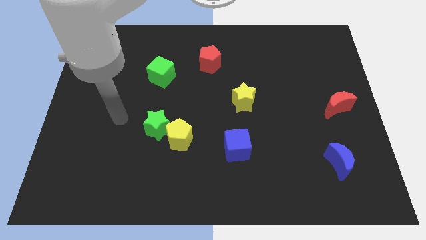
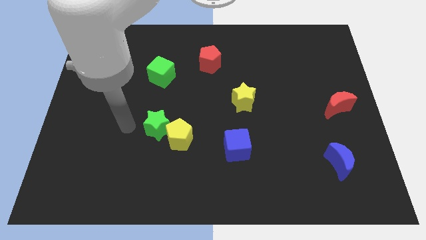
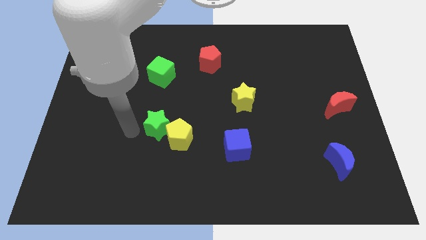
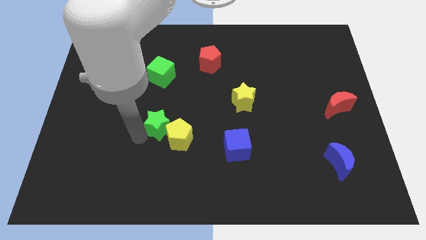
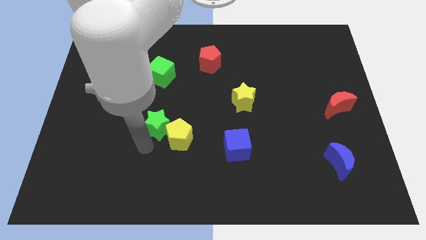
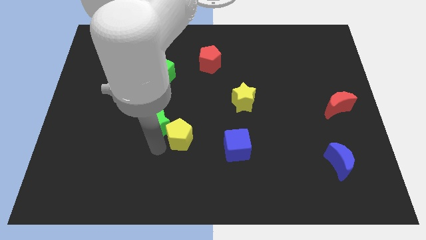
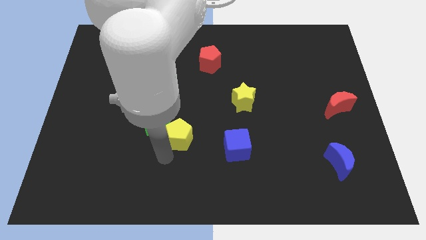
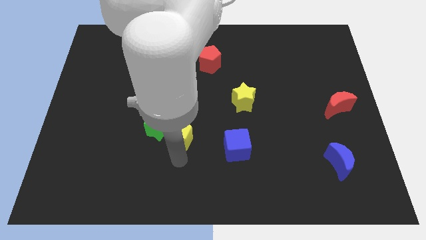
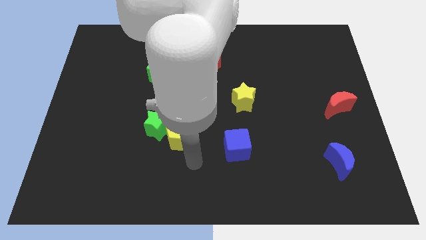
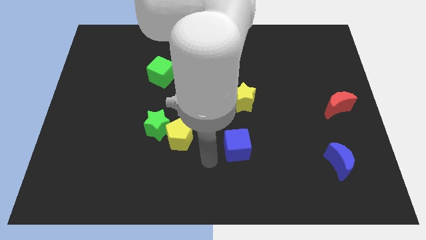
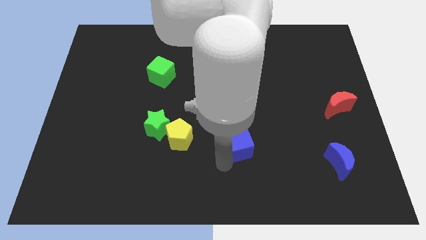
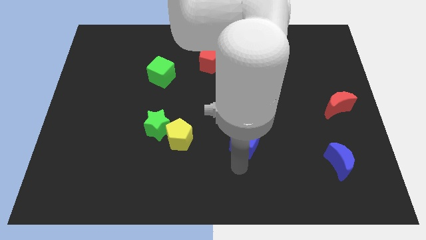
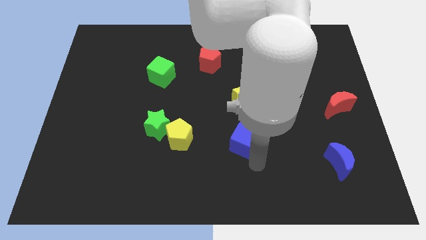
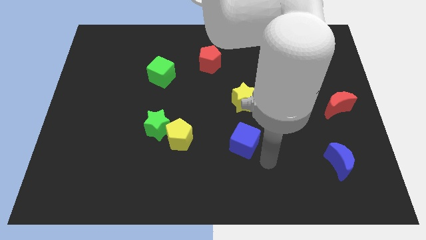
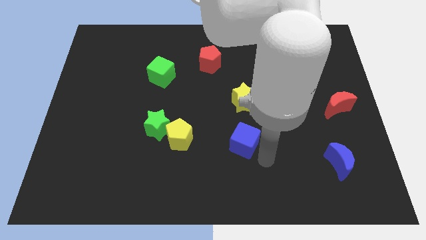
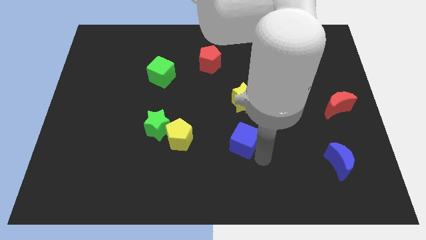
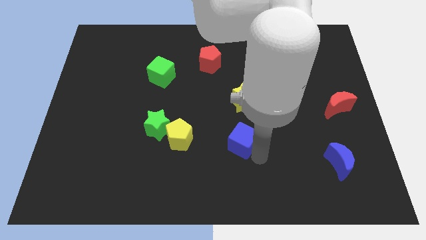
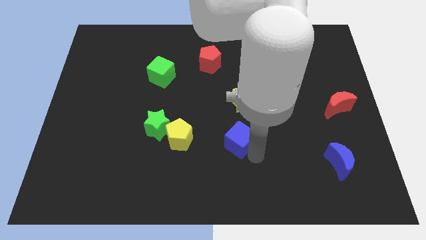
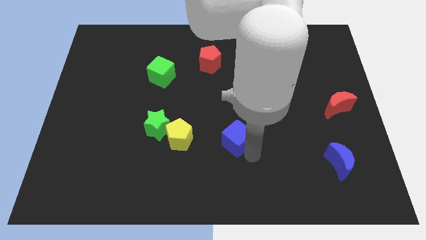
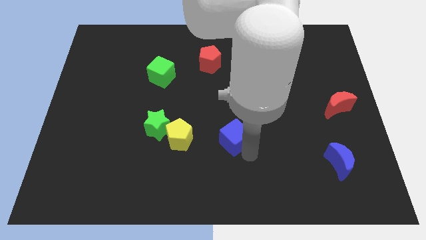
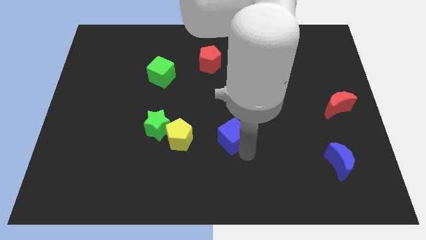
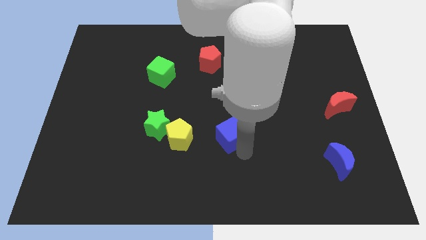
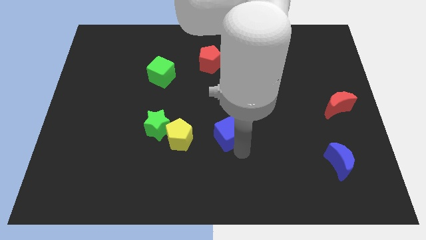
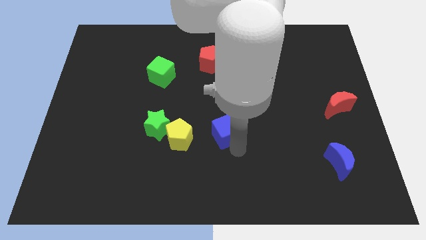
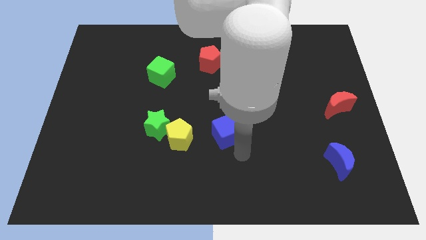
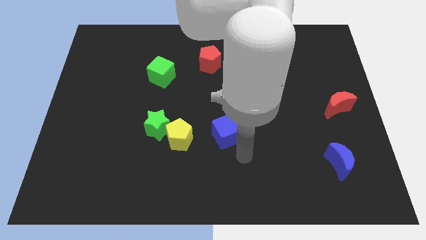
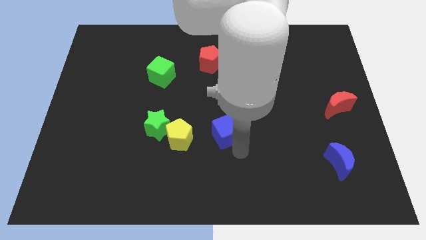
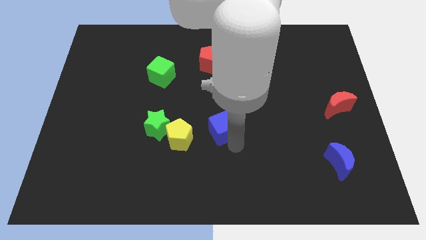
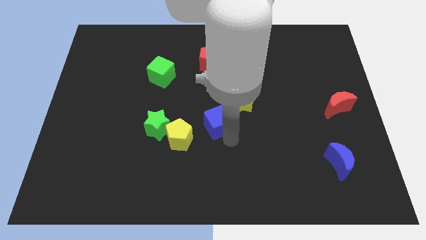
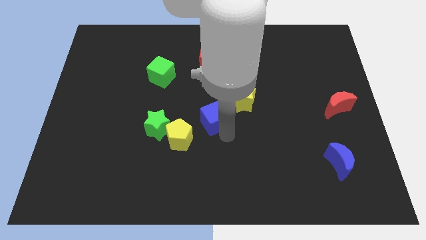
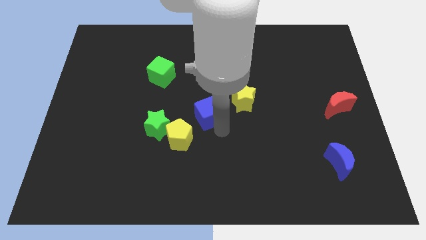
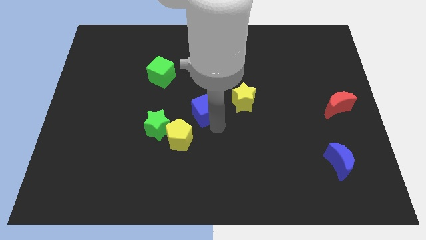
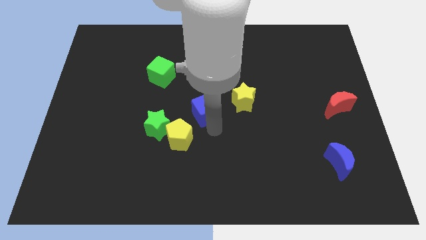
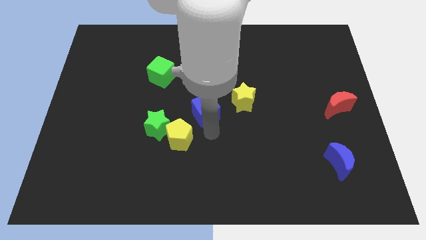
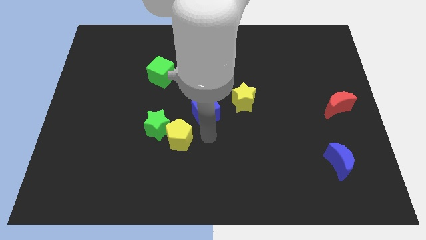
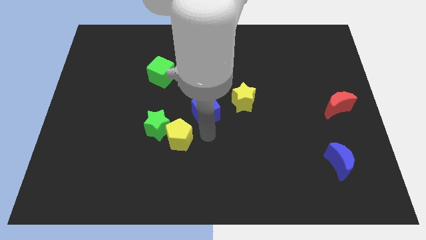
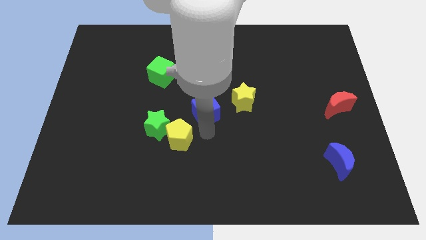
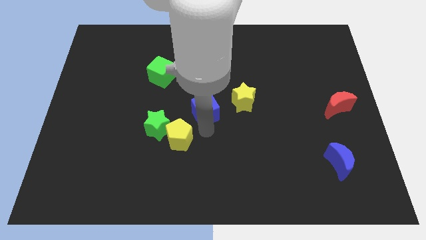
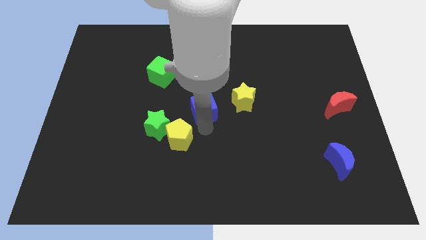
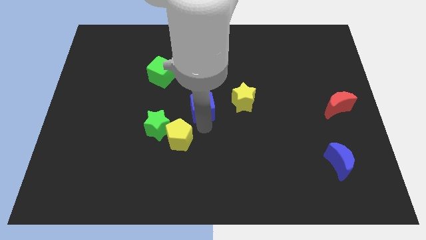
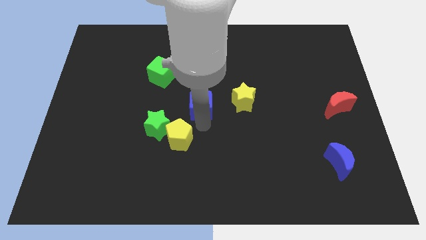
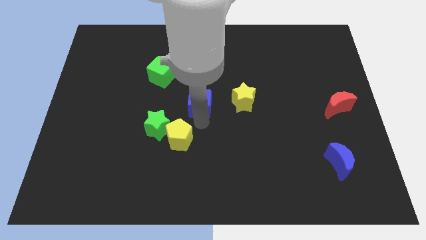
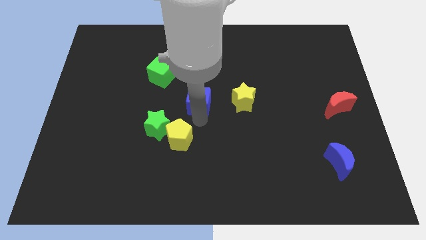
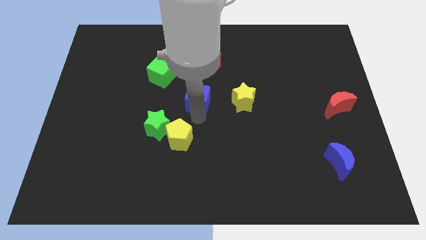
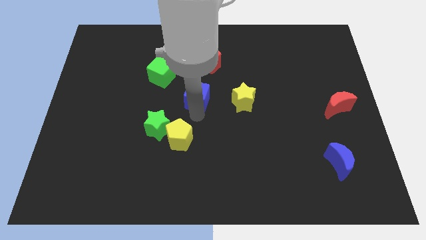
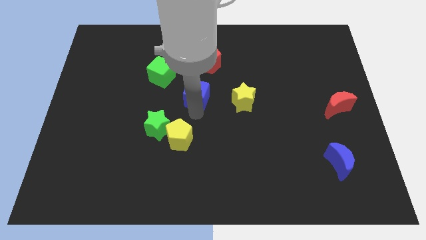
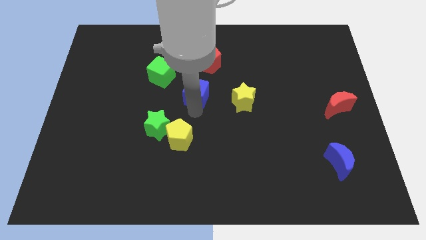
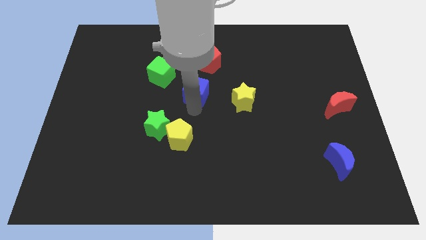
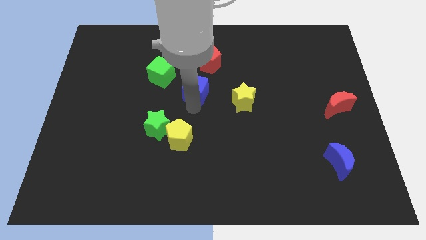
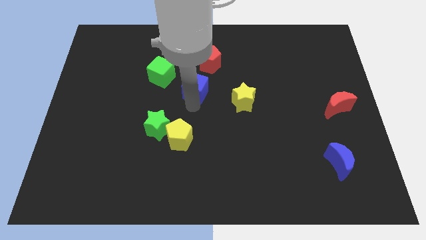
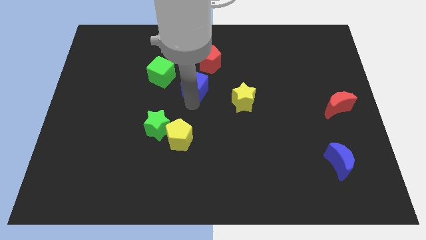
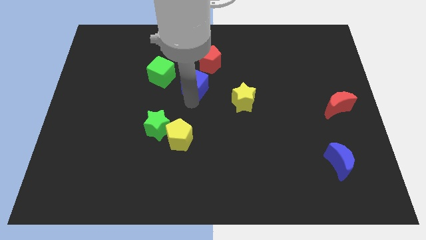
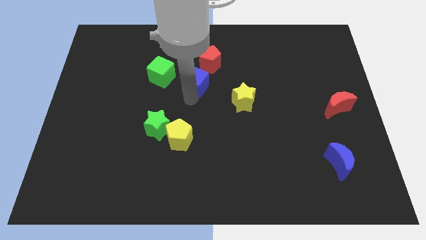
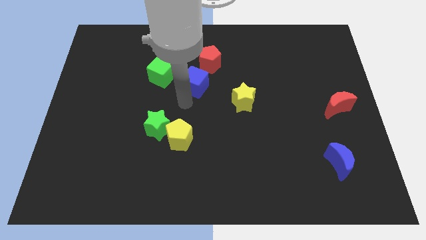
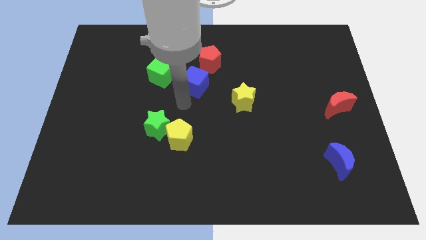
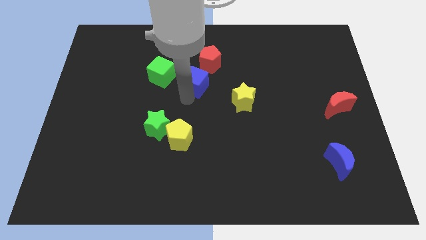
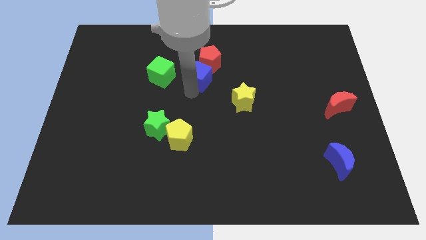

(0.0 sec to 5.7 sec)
put the blue cube close to the red pentagon

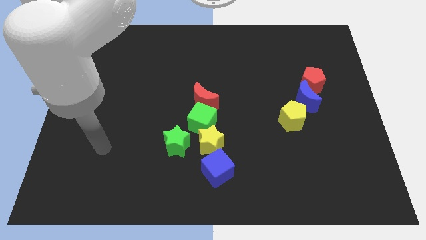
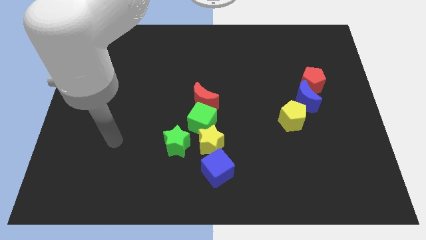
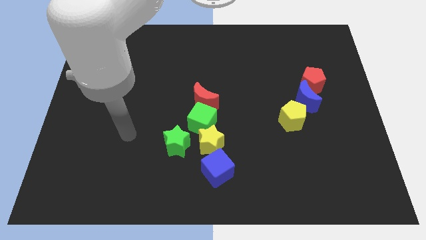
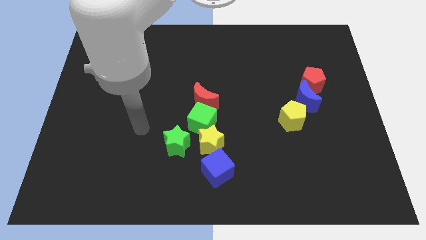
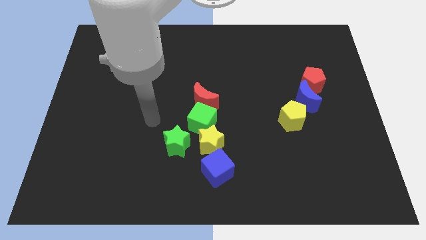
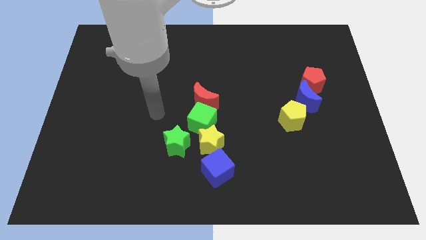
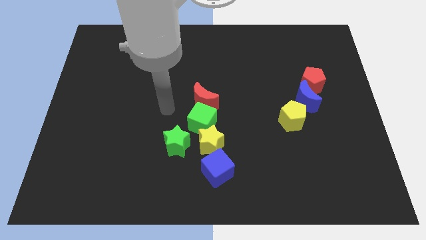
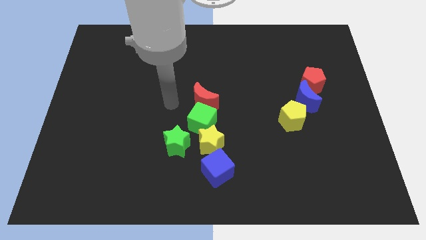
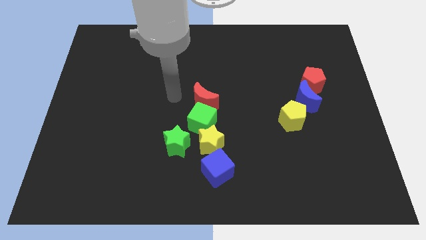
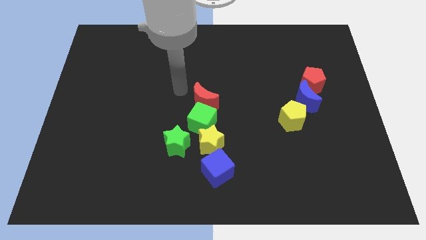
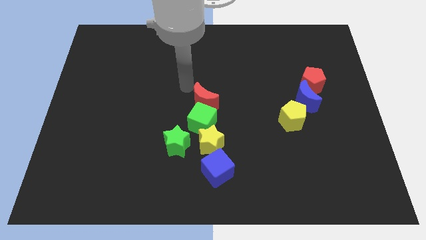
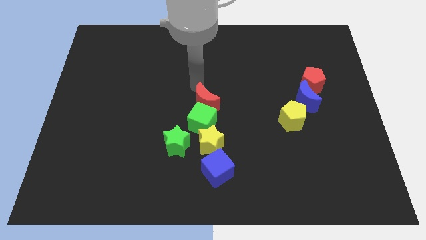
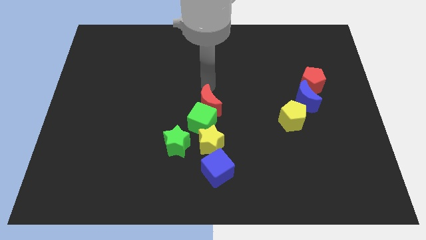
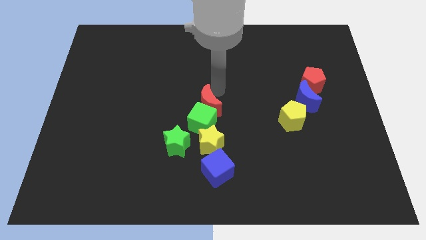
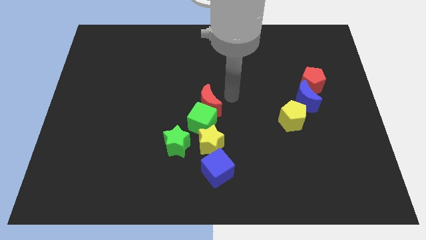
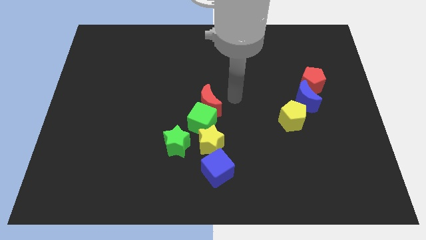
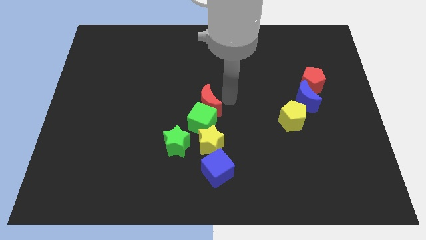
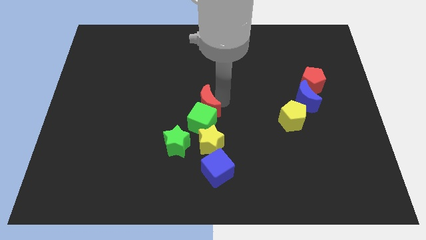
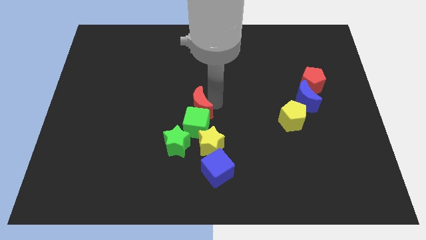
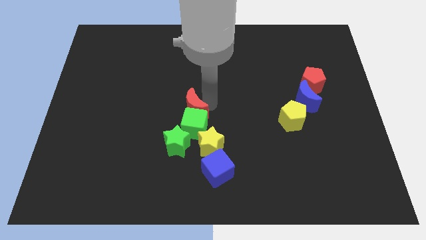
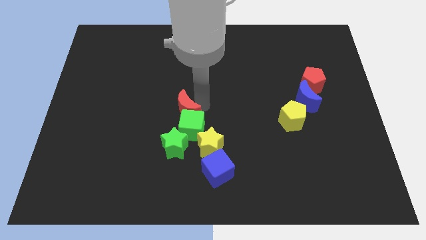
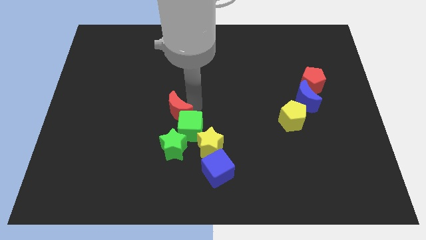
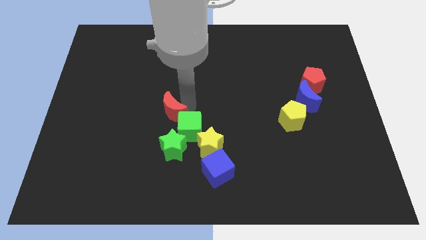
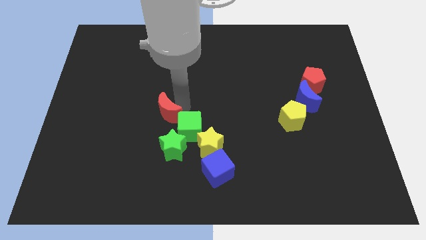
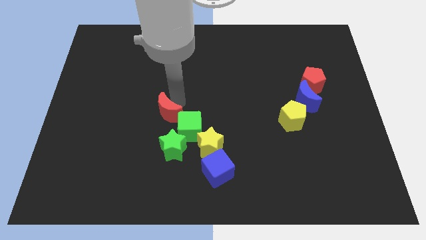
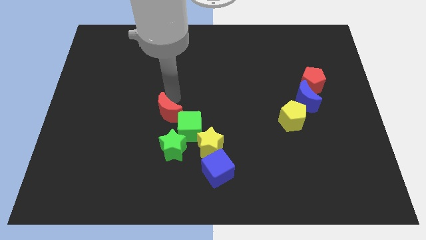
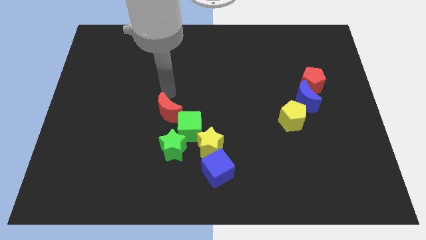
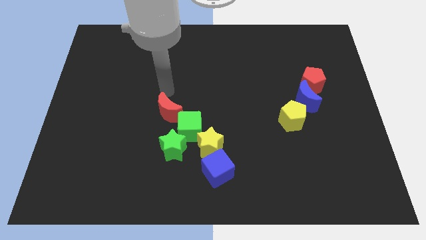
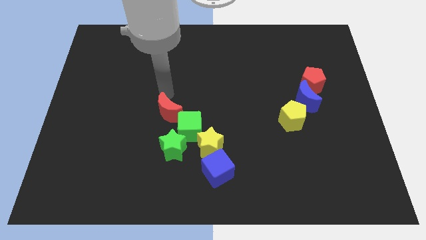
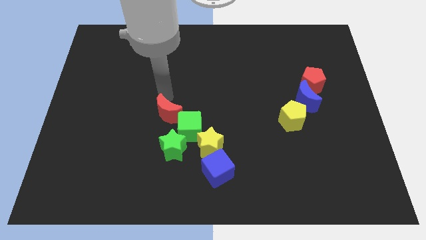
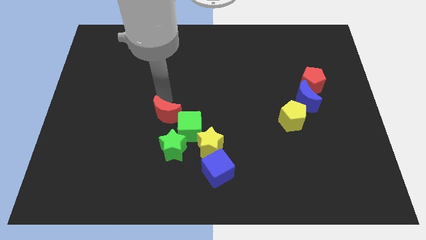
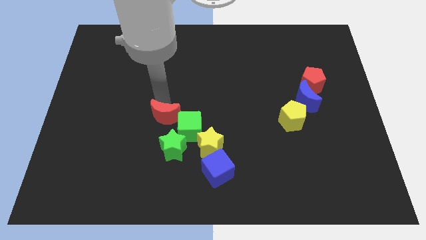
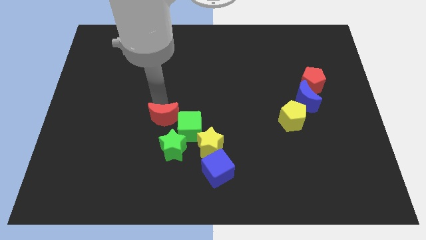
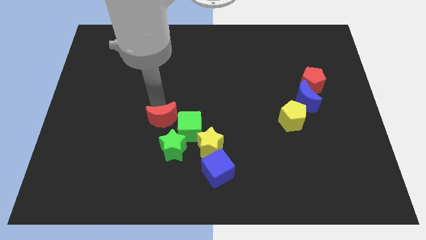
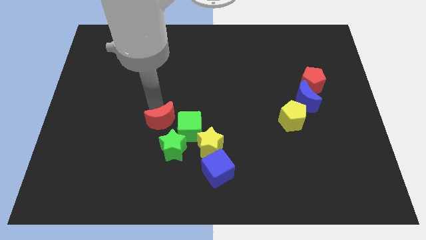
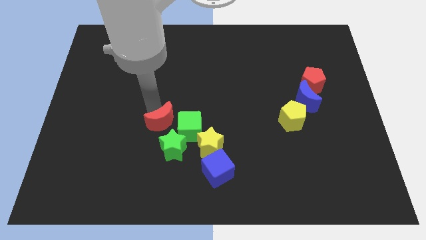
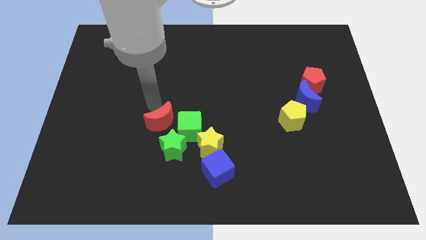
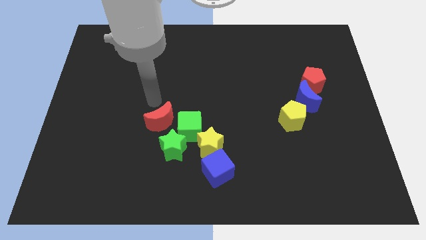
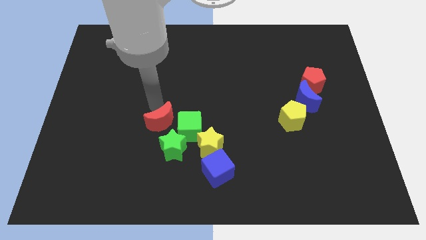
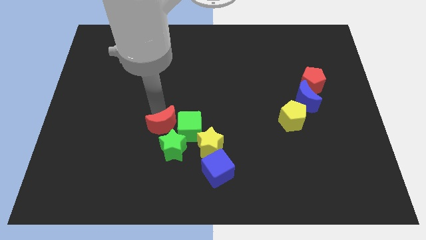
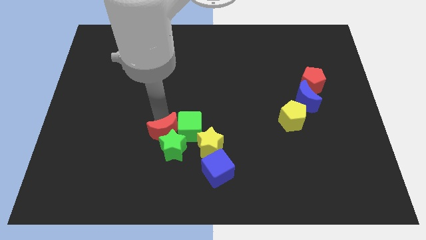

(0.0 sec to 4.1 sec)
slide the red moon next to the green star
